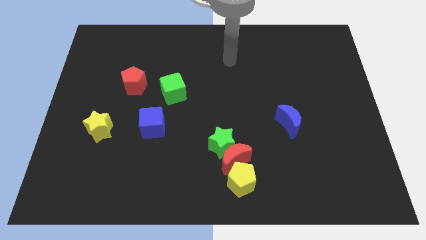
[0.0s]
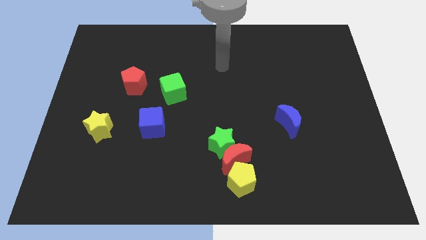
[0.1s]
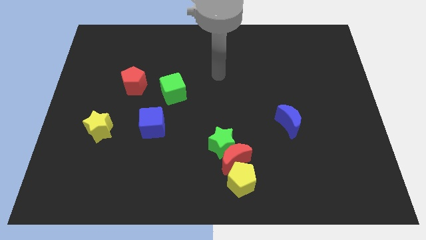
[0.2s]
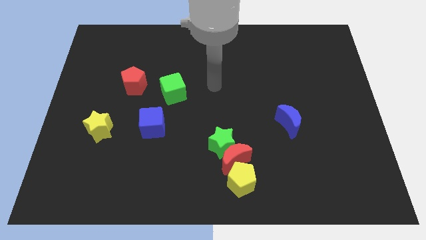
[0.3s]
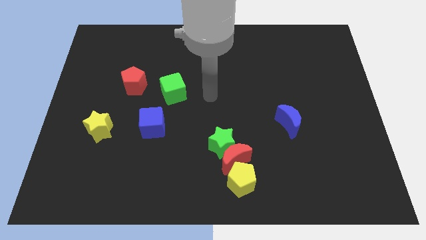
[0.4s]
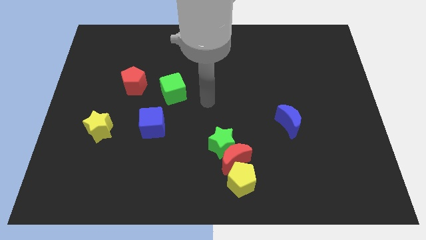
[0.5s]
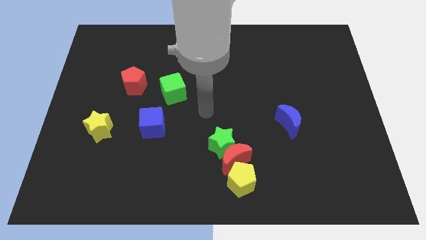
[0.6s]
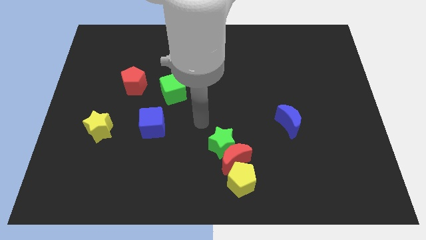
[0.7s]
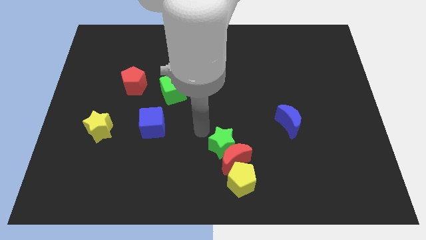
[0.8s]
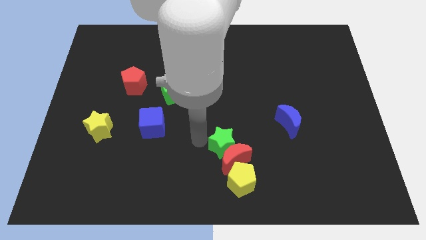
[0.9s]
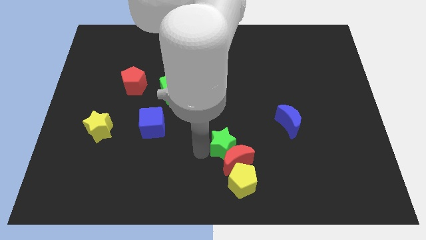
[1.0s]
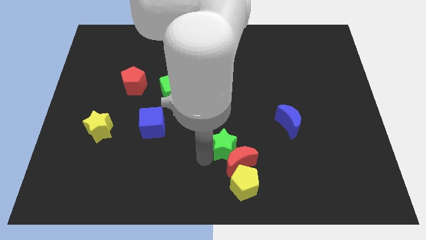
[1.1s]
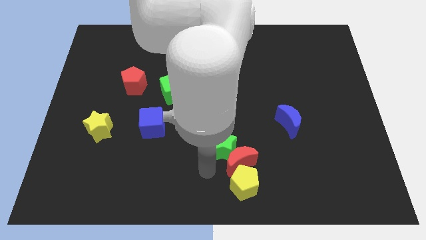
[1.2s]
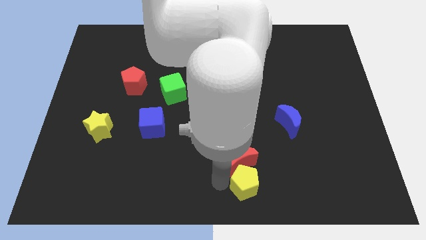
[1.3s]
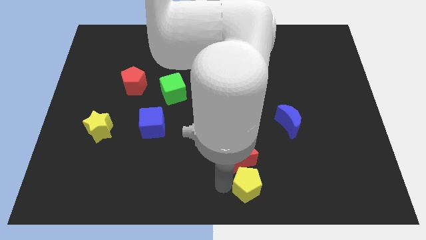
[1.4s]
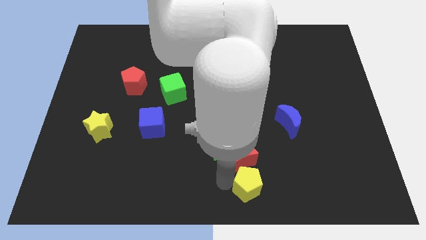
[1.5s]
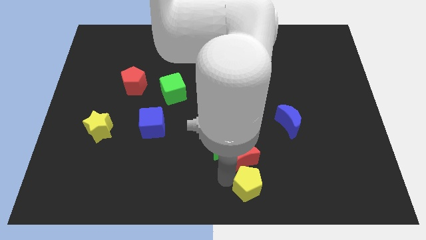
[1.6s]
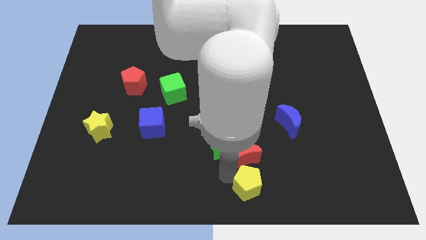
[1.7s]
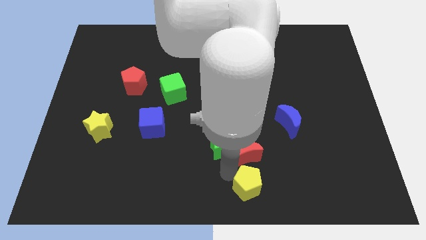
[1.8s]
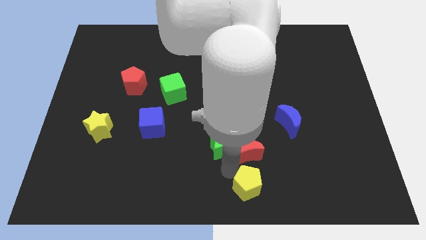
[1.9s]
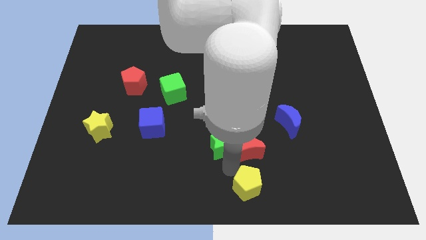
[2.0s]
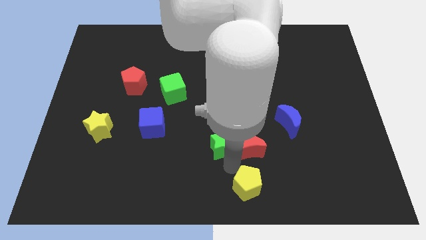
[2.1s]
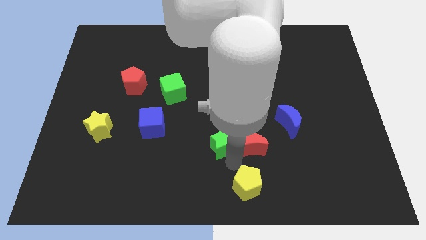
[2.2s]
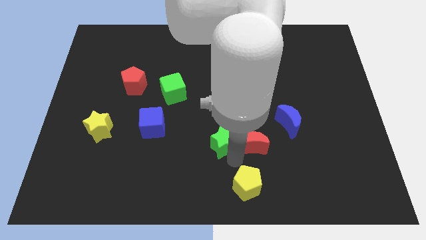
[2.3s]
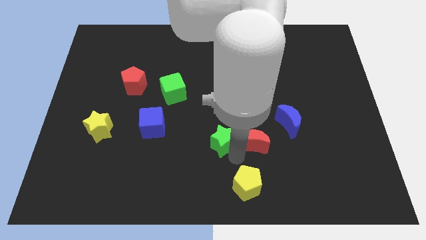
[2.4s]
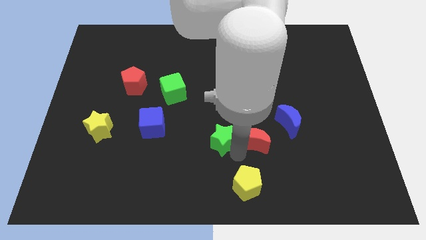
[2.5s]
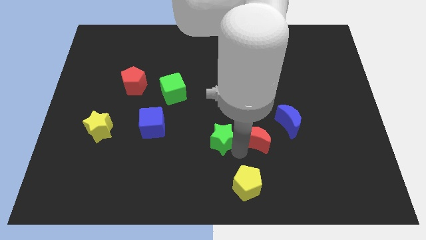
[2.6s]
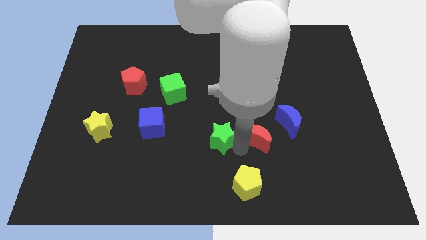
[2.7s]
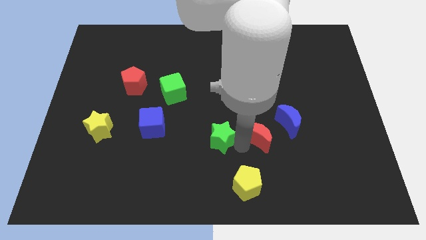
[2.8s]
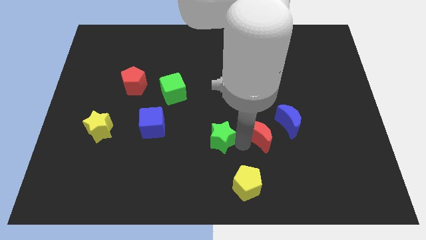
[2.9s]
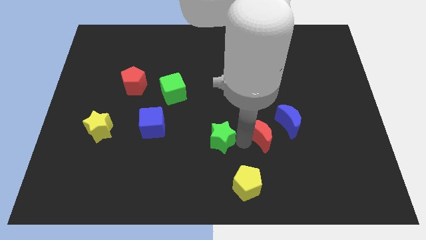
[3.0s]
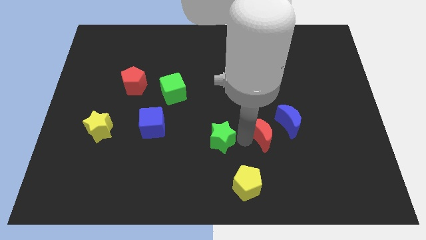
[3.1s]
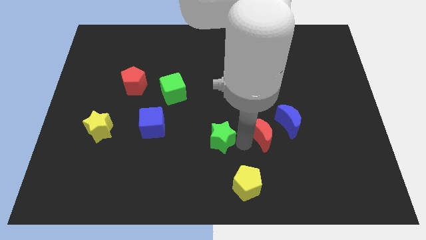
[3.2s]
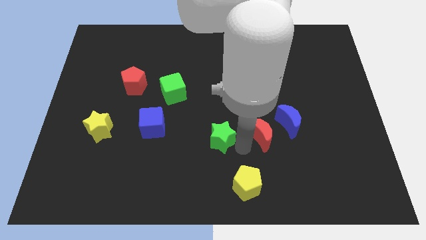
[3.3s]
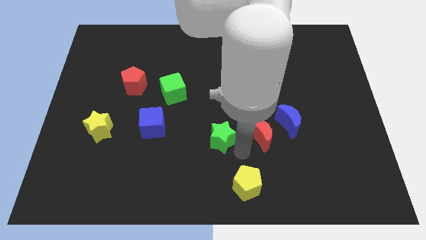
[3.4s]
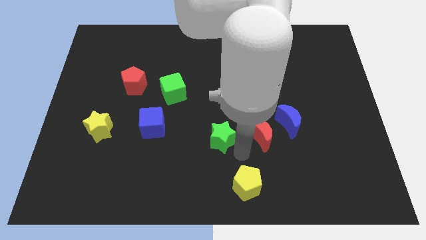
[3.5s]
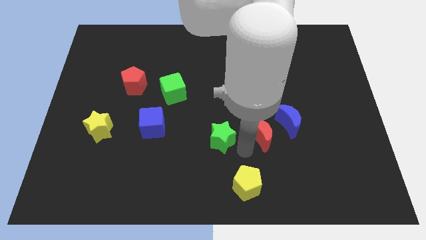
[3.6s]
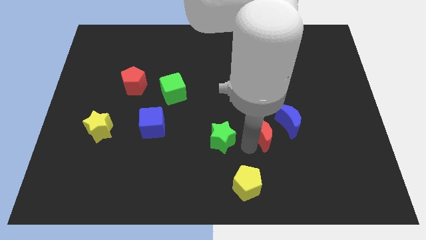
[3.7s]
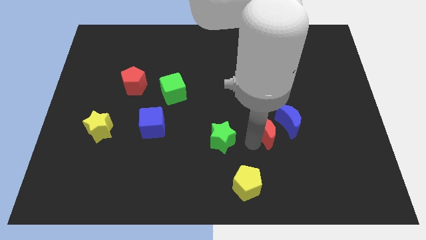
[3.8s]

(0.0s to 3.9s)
pull the red moon apart from the green star and yellow pentagon

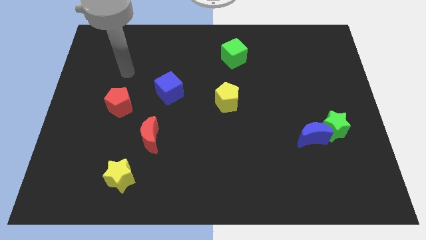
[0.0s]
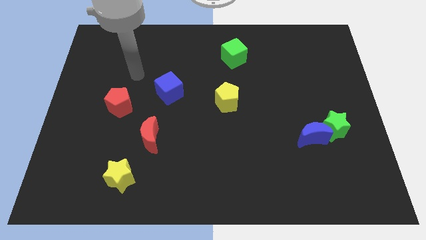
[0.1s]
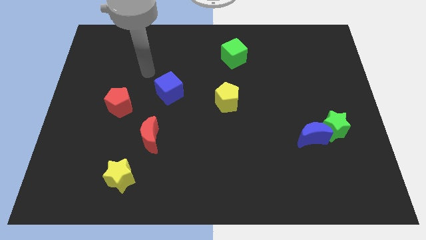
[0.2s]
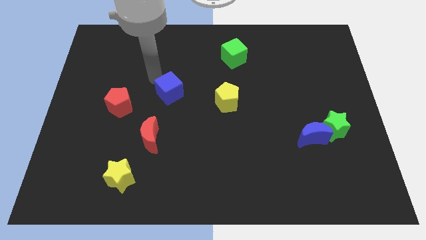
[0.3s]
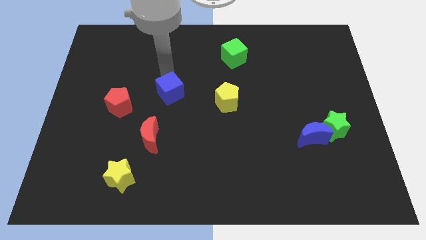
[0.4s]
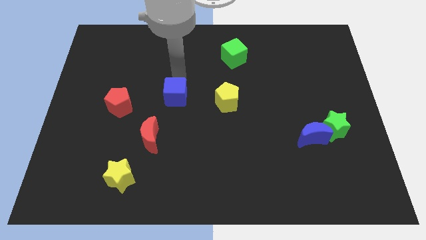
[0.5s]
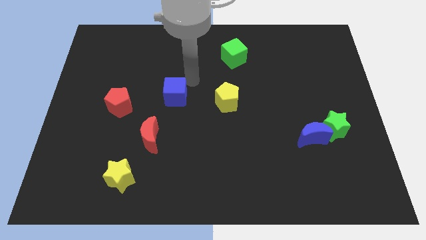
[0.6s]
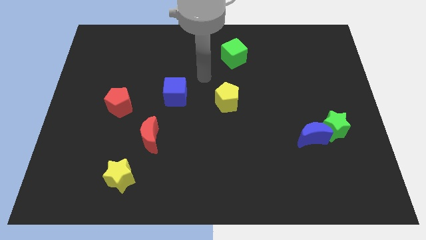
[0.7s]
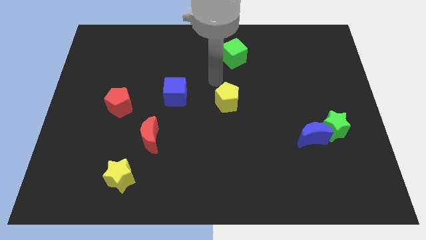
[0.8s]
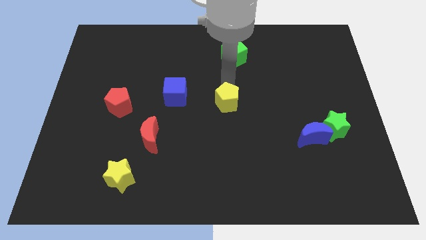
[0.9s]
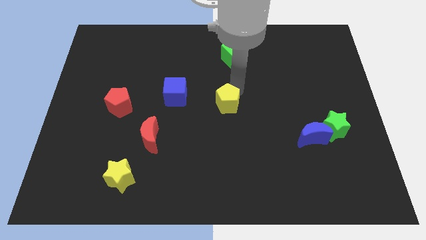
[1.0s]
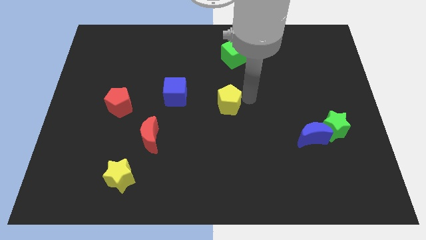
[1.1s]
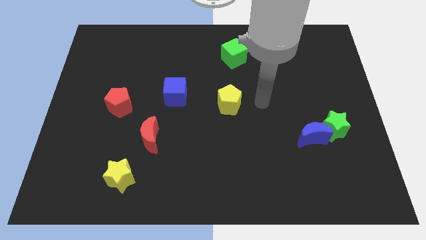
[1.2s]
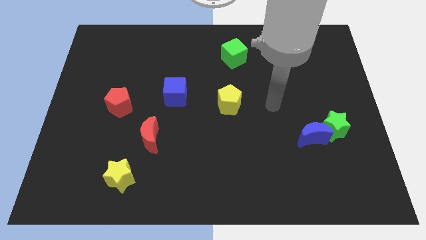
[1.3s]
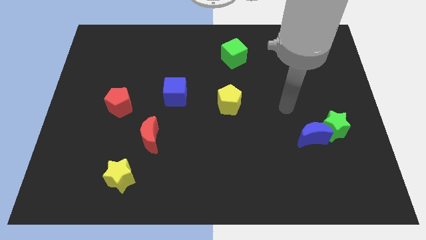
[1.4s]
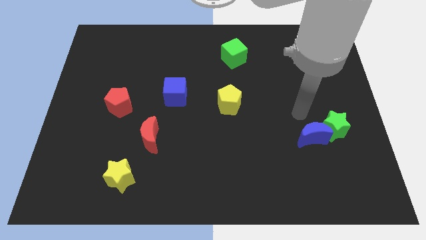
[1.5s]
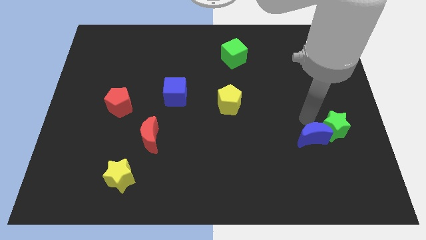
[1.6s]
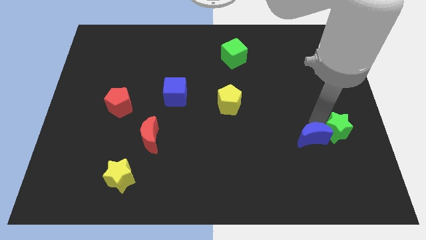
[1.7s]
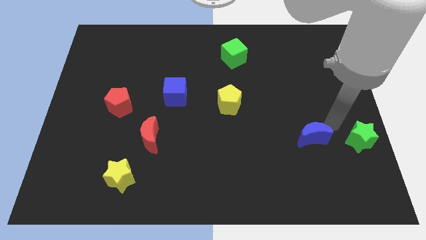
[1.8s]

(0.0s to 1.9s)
pull the blue moon apart from the green star

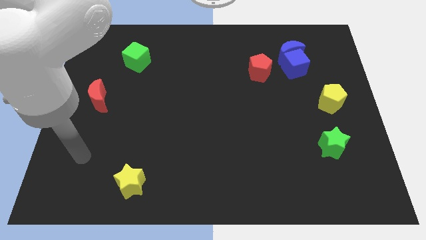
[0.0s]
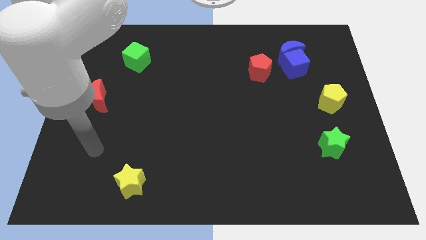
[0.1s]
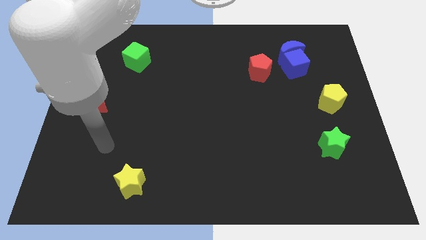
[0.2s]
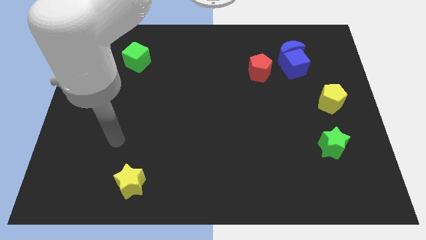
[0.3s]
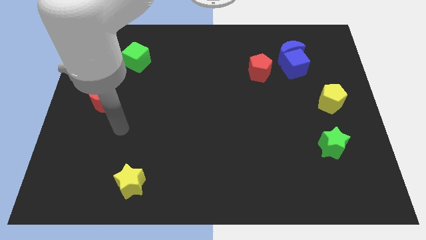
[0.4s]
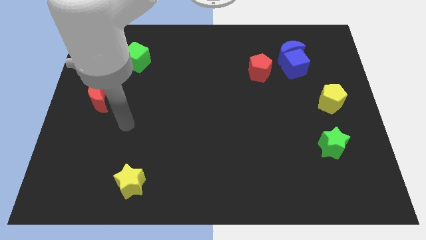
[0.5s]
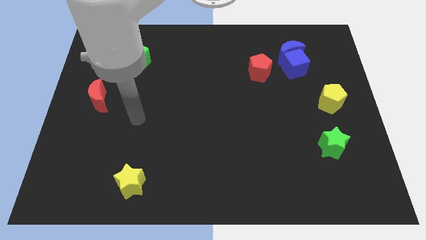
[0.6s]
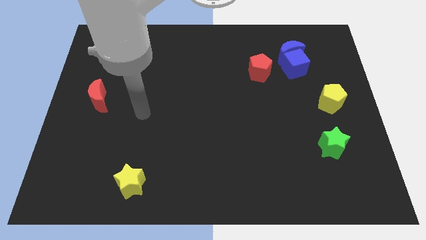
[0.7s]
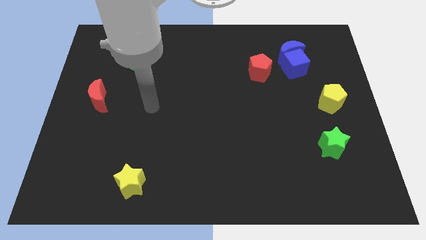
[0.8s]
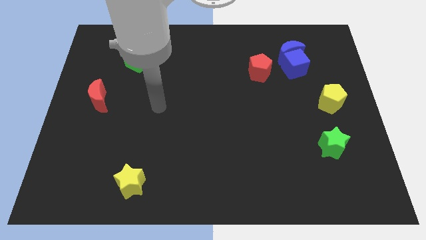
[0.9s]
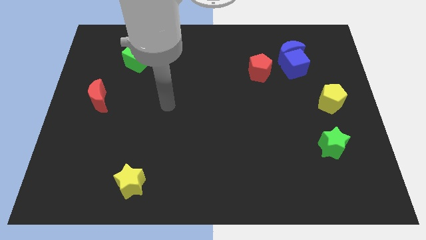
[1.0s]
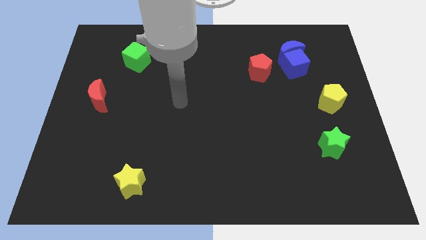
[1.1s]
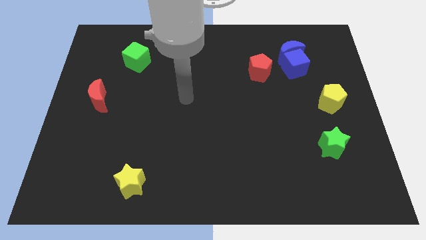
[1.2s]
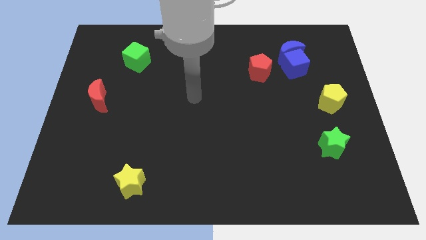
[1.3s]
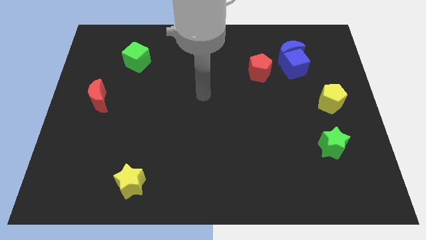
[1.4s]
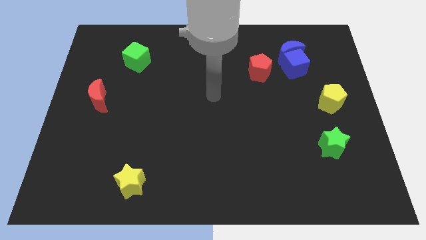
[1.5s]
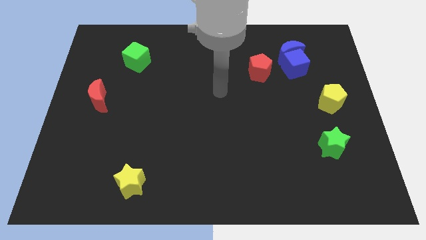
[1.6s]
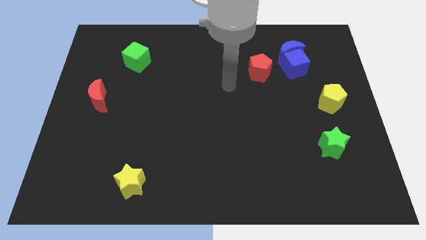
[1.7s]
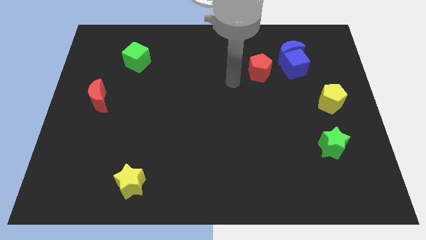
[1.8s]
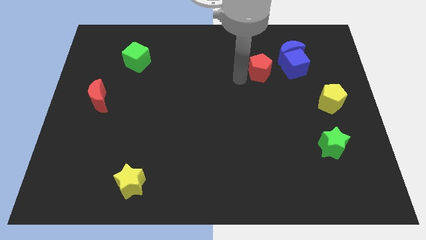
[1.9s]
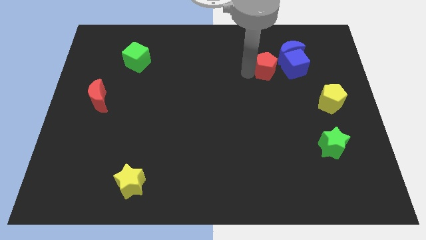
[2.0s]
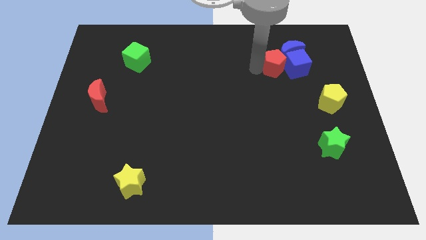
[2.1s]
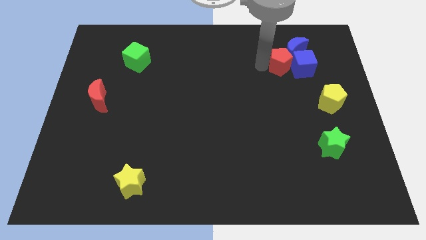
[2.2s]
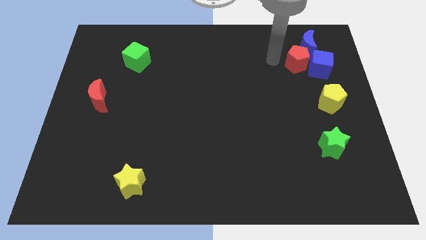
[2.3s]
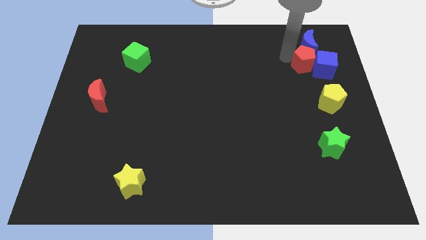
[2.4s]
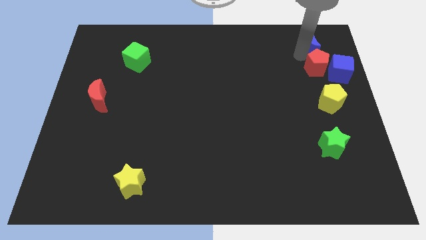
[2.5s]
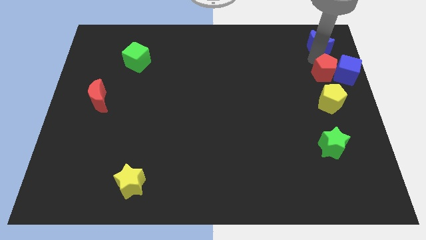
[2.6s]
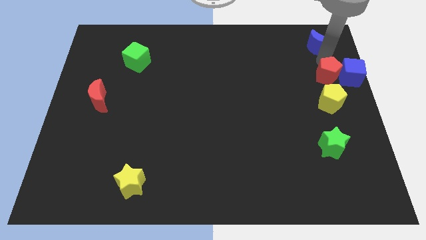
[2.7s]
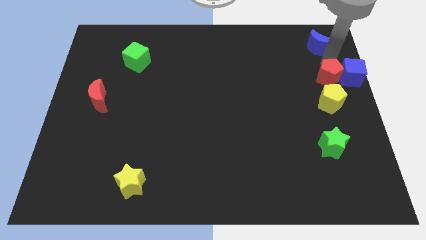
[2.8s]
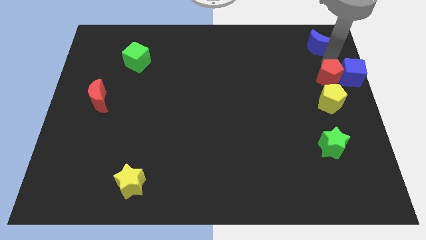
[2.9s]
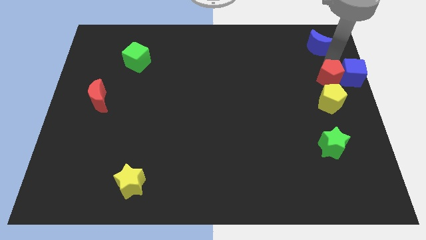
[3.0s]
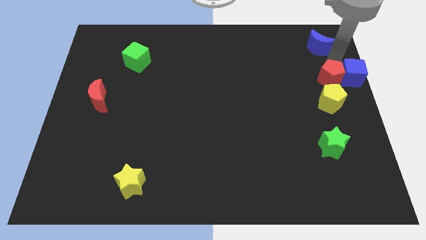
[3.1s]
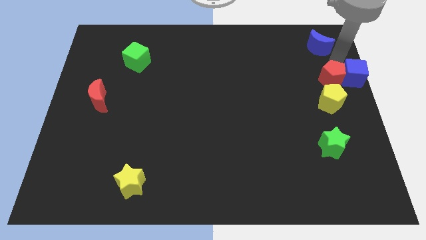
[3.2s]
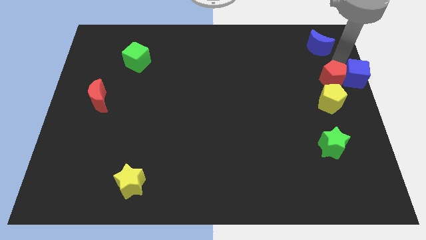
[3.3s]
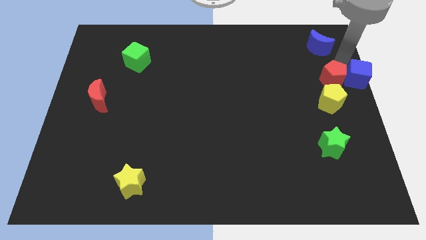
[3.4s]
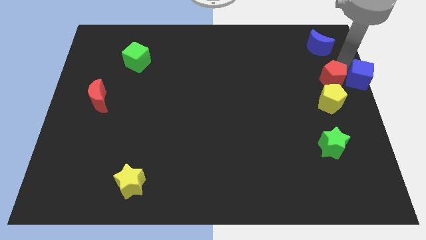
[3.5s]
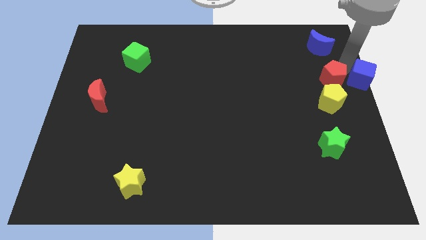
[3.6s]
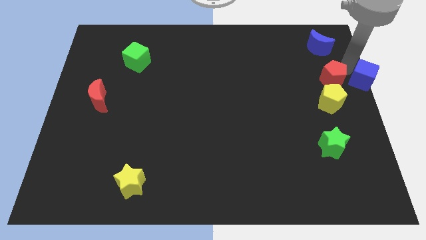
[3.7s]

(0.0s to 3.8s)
separate the blue cube from the blue moon and red pentagon

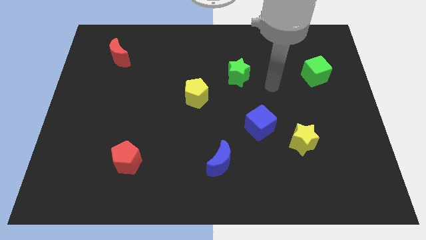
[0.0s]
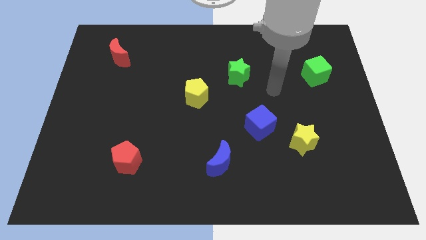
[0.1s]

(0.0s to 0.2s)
move the blue cube away from the yellow star
